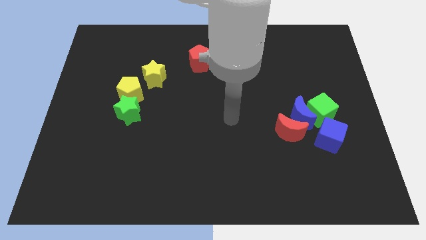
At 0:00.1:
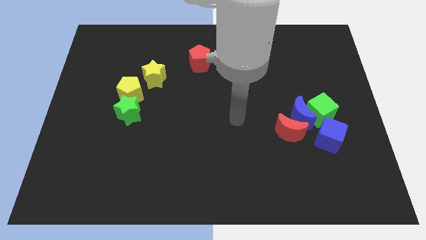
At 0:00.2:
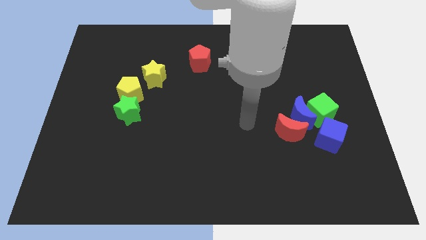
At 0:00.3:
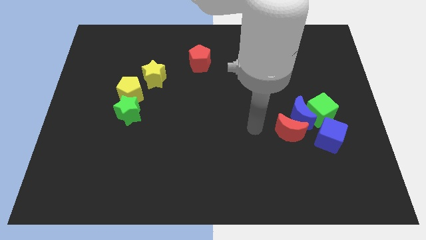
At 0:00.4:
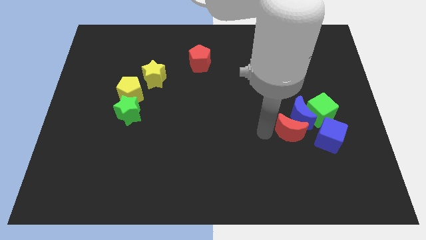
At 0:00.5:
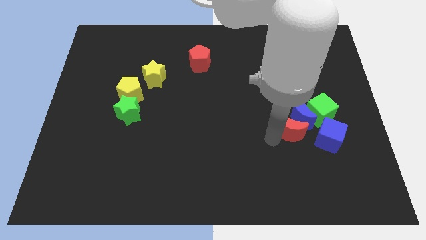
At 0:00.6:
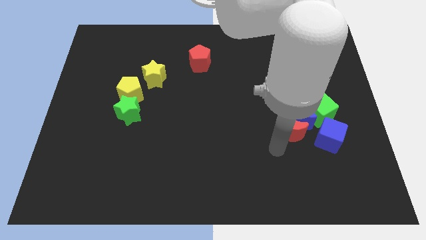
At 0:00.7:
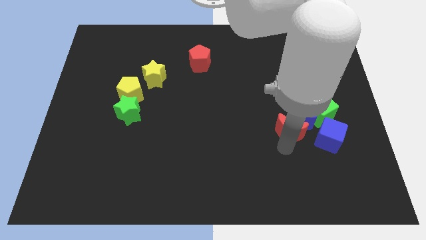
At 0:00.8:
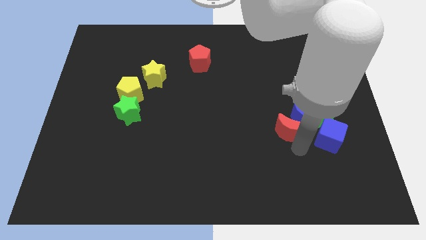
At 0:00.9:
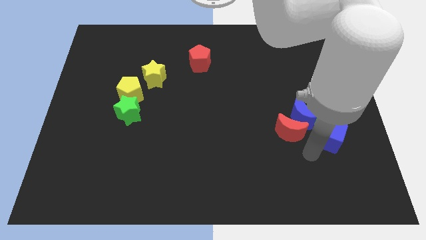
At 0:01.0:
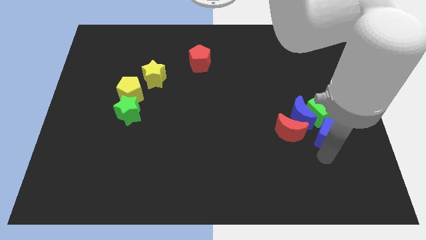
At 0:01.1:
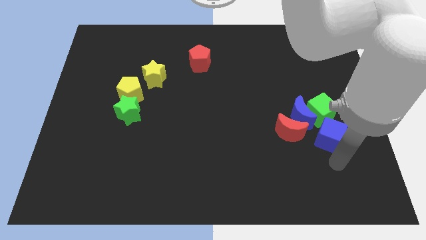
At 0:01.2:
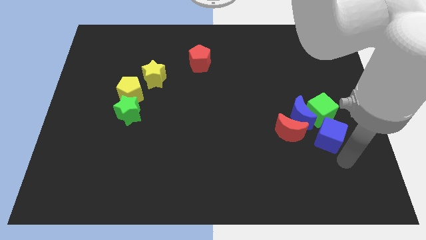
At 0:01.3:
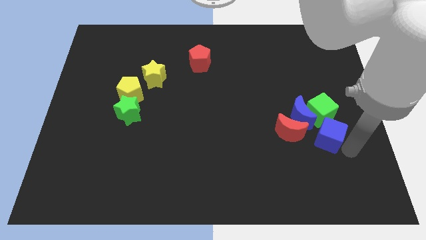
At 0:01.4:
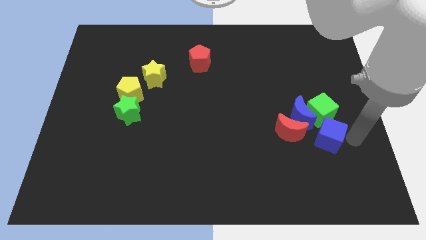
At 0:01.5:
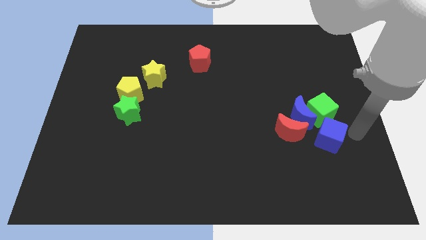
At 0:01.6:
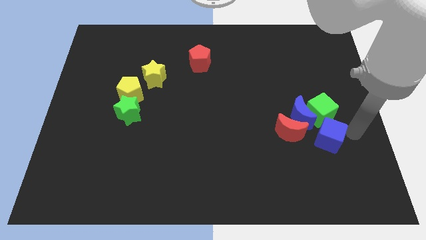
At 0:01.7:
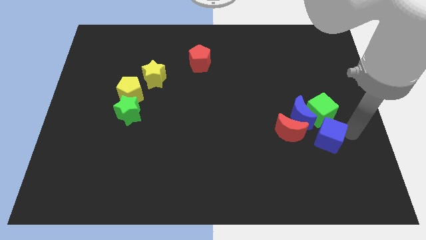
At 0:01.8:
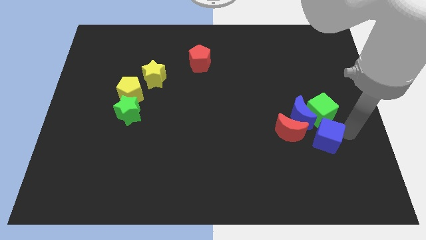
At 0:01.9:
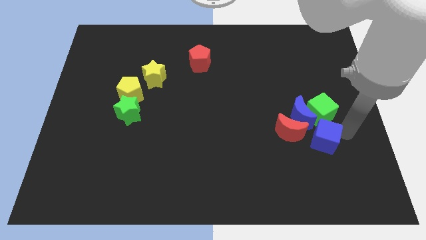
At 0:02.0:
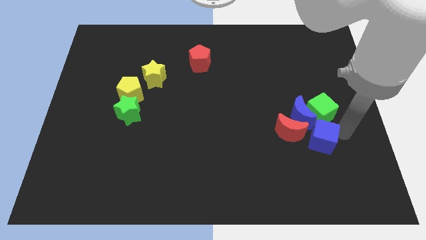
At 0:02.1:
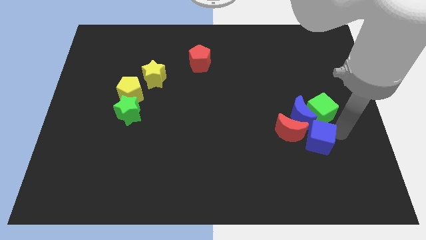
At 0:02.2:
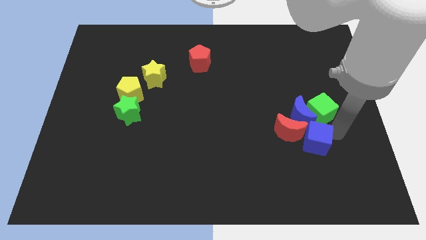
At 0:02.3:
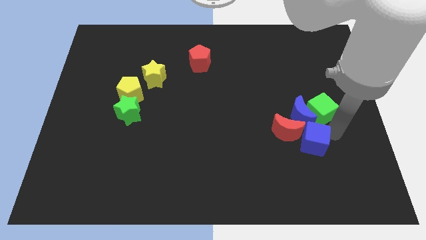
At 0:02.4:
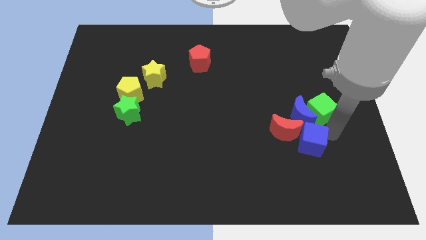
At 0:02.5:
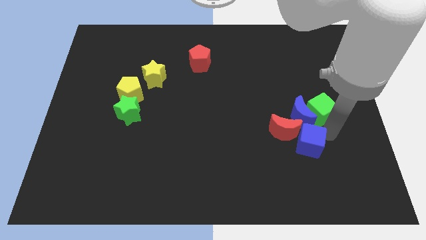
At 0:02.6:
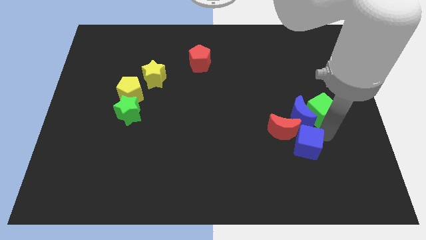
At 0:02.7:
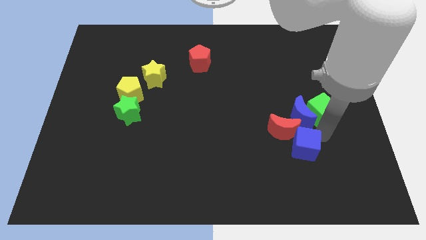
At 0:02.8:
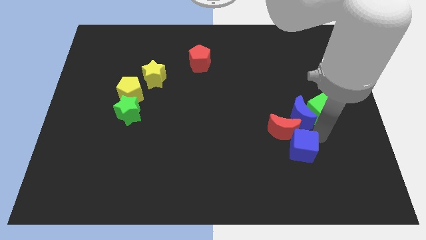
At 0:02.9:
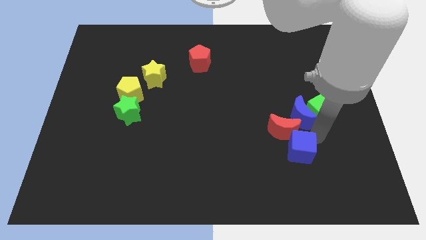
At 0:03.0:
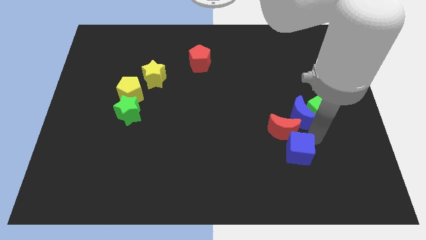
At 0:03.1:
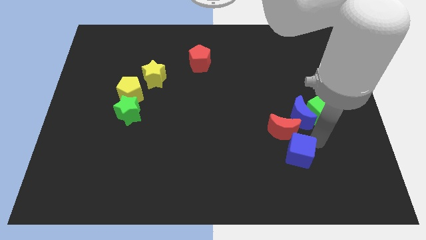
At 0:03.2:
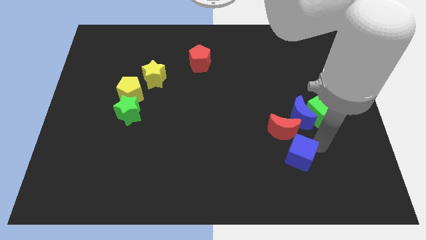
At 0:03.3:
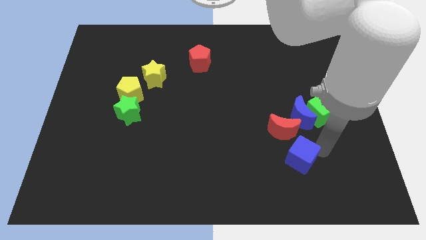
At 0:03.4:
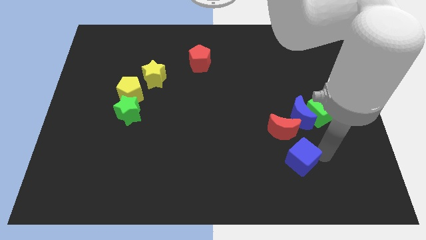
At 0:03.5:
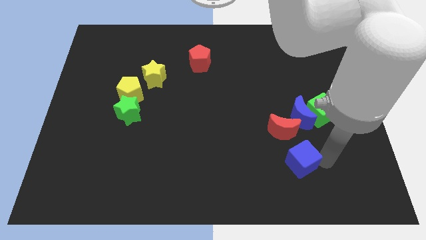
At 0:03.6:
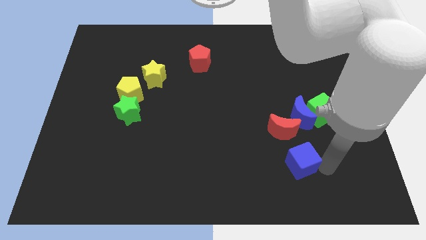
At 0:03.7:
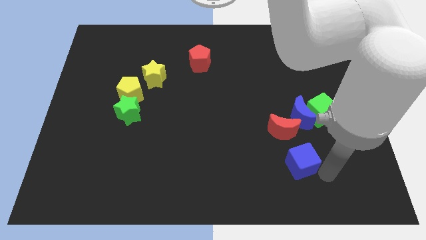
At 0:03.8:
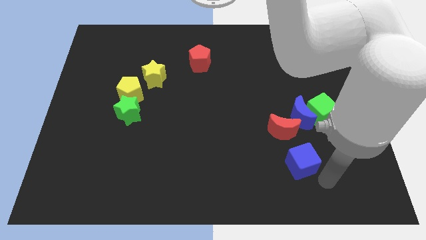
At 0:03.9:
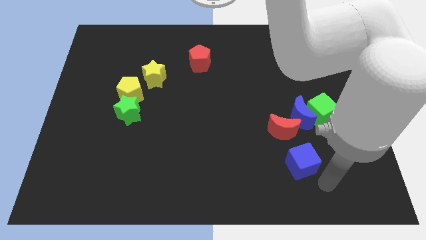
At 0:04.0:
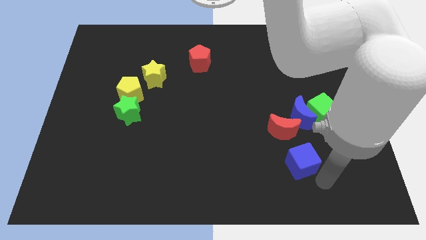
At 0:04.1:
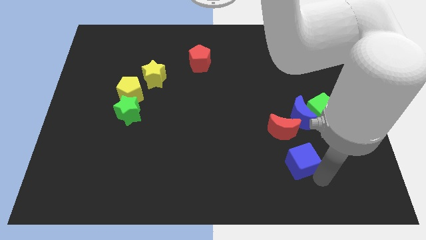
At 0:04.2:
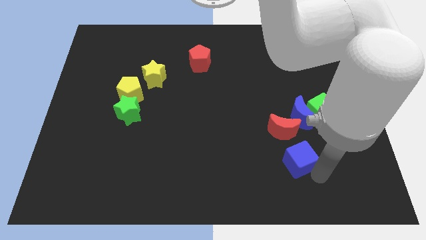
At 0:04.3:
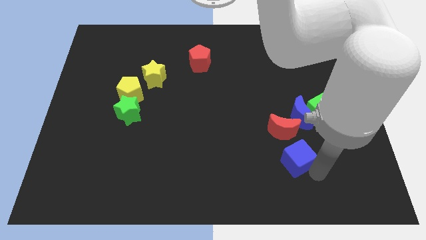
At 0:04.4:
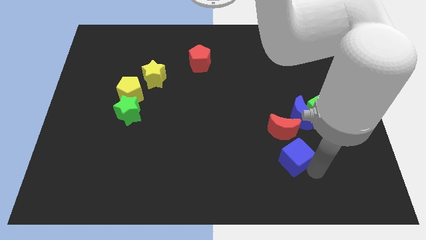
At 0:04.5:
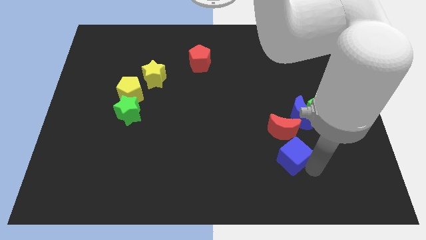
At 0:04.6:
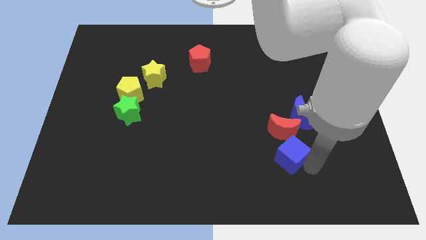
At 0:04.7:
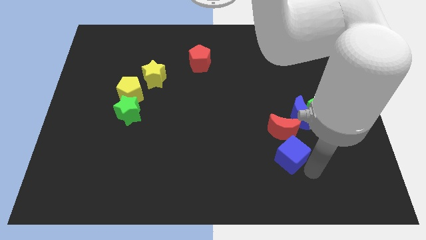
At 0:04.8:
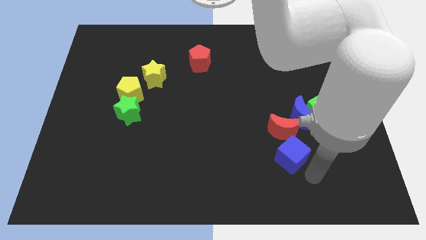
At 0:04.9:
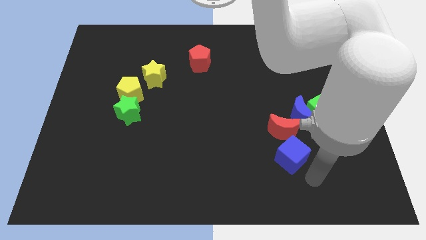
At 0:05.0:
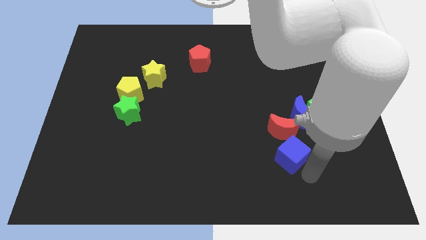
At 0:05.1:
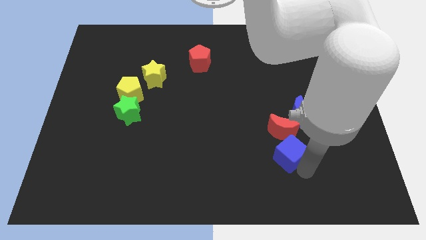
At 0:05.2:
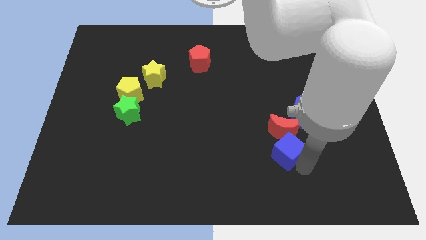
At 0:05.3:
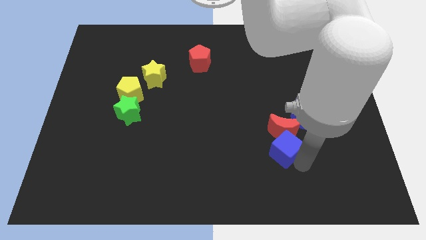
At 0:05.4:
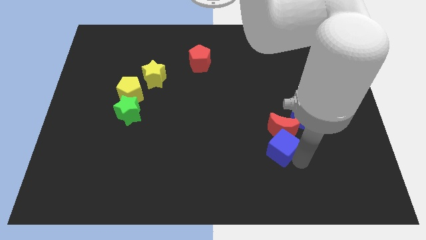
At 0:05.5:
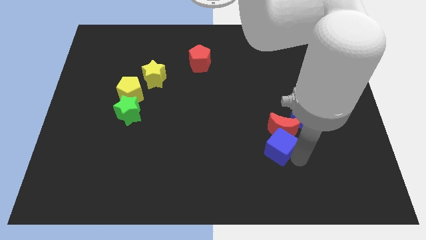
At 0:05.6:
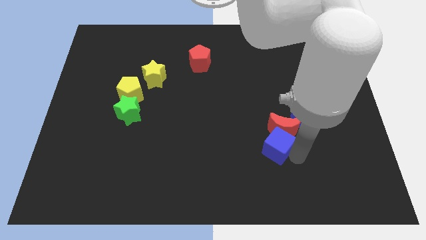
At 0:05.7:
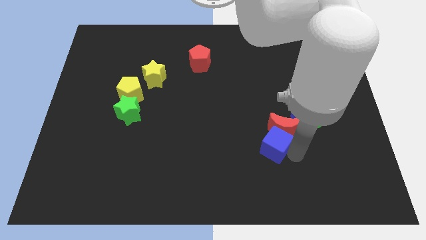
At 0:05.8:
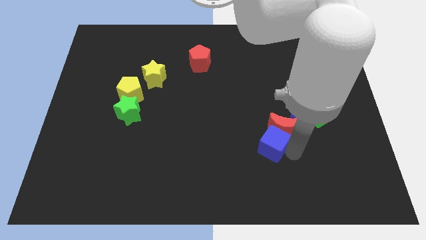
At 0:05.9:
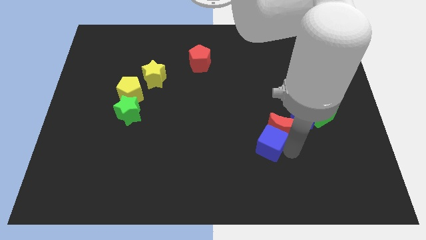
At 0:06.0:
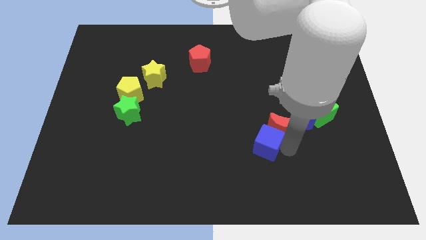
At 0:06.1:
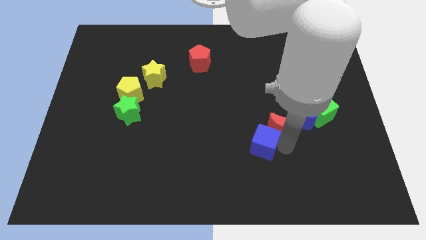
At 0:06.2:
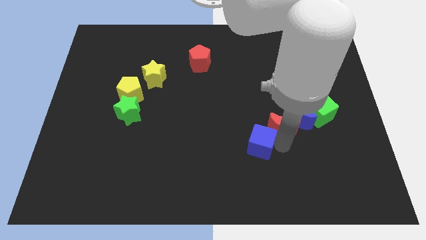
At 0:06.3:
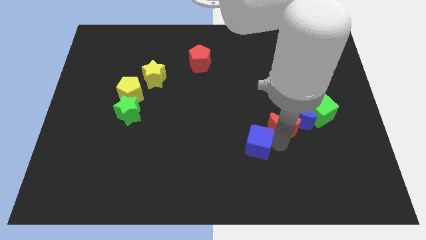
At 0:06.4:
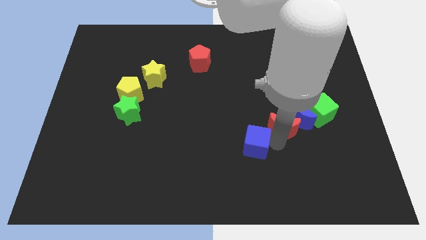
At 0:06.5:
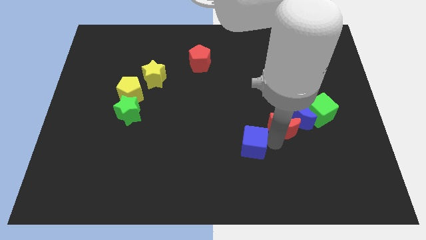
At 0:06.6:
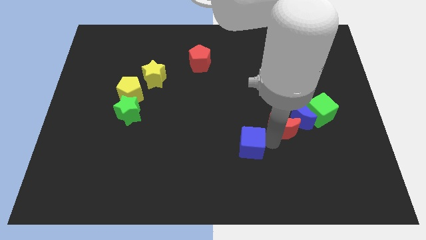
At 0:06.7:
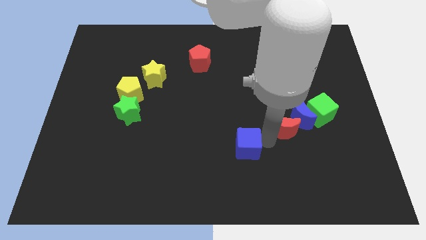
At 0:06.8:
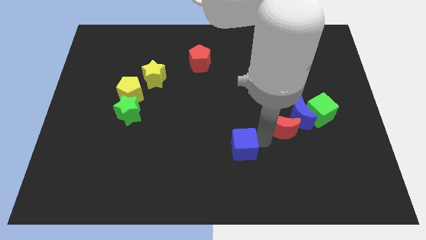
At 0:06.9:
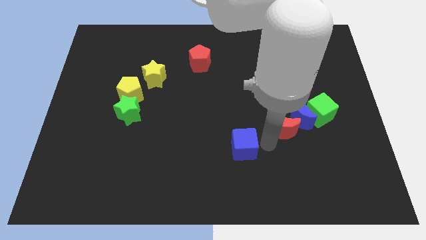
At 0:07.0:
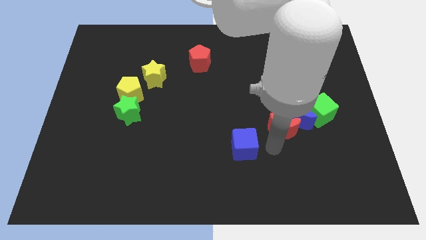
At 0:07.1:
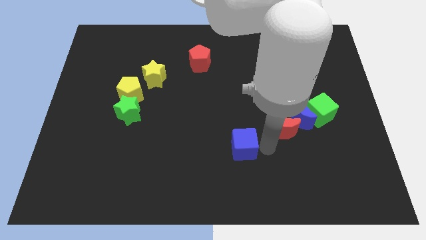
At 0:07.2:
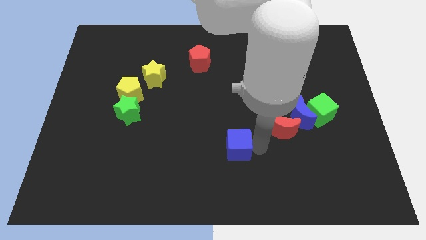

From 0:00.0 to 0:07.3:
slide the blue cube to the left

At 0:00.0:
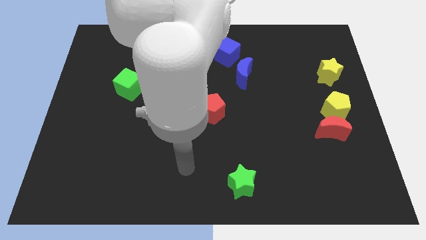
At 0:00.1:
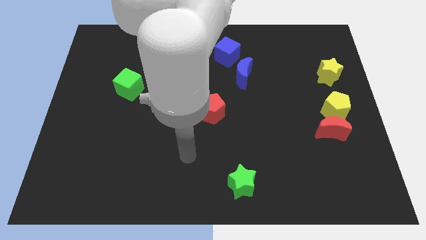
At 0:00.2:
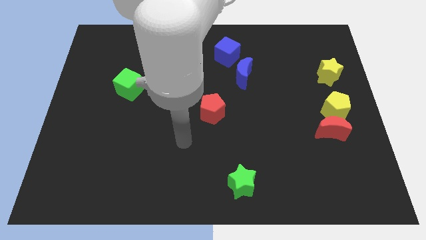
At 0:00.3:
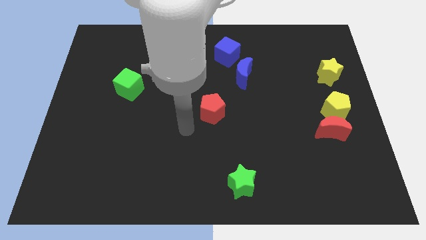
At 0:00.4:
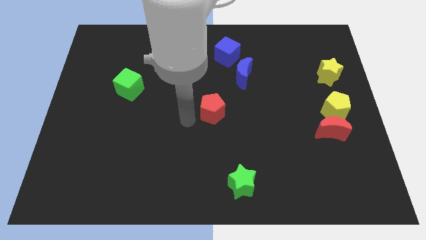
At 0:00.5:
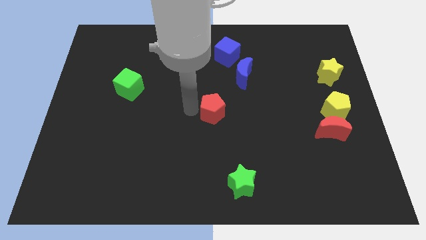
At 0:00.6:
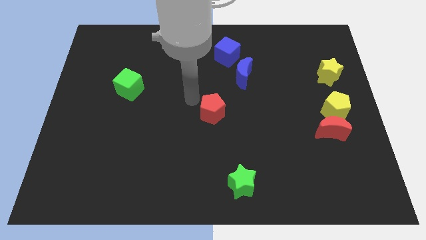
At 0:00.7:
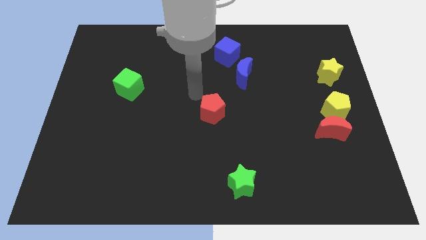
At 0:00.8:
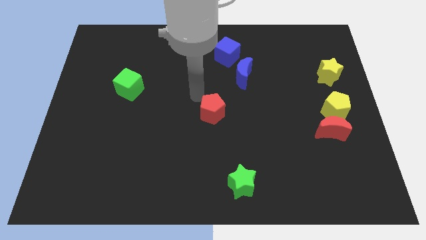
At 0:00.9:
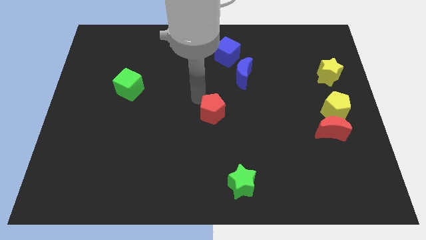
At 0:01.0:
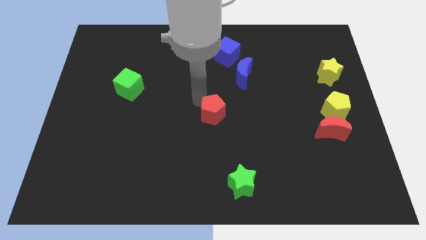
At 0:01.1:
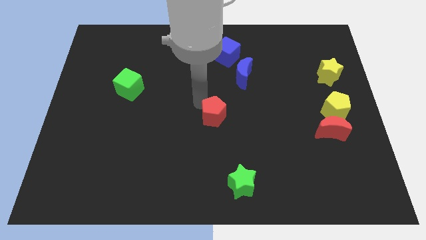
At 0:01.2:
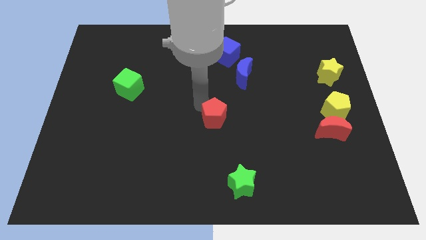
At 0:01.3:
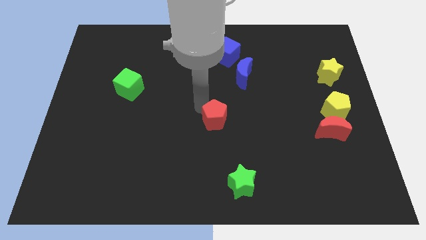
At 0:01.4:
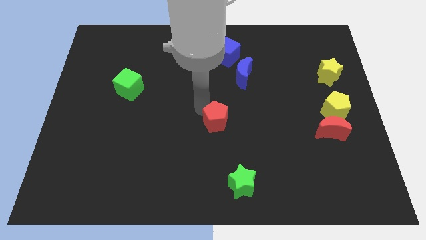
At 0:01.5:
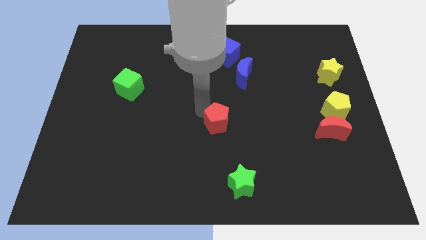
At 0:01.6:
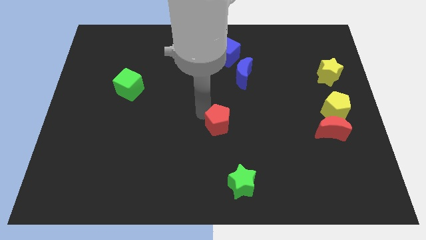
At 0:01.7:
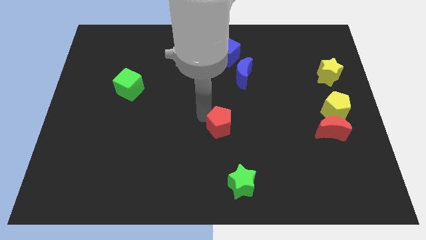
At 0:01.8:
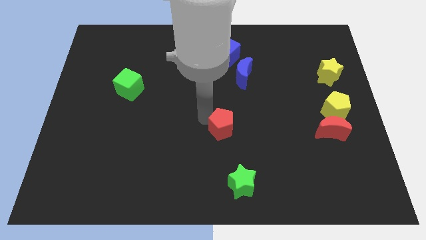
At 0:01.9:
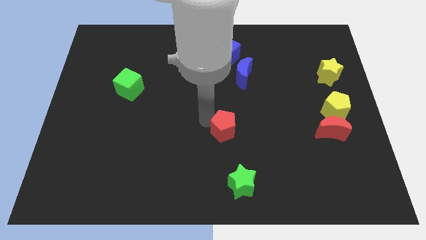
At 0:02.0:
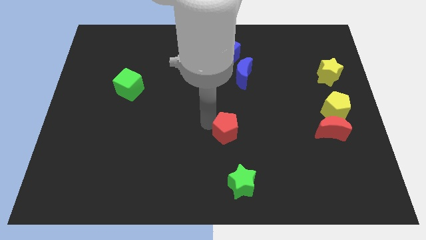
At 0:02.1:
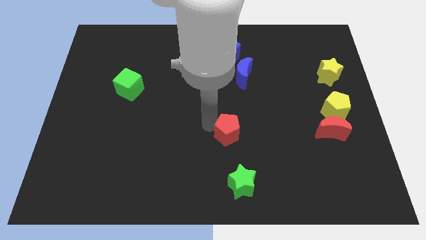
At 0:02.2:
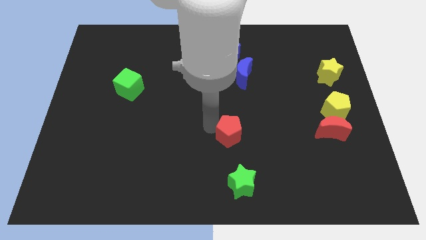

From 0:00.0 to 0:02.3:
slightly move the red pentagon down and to the right
